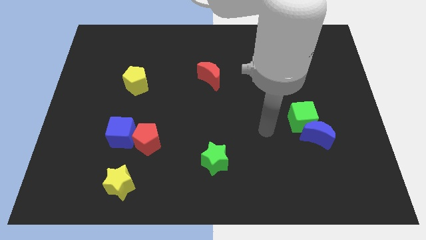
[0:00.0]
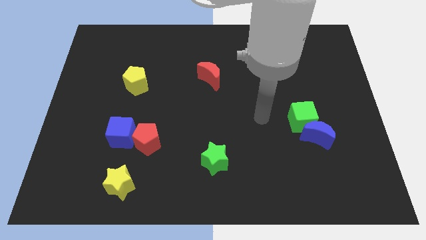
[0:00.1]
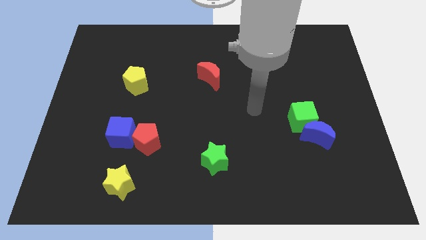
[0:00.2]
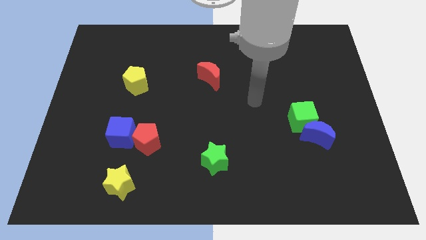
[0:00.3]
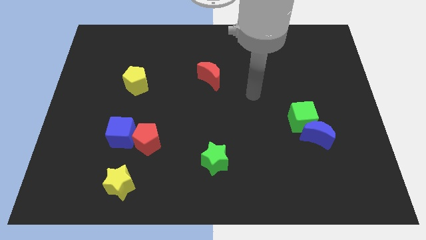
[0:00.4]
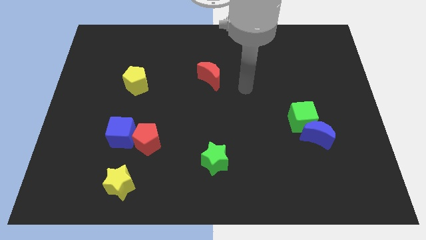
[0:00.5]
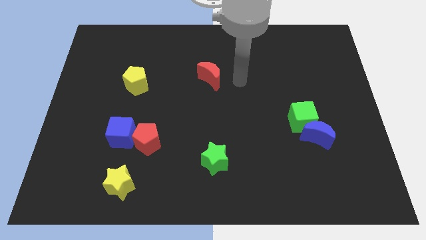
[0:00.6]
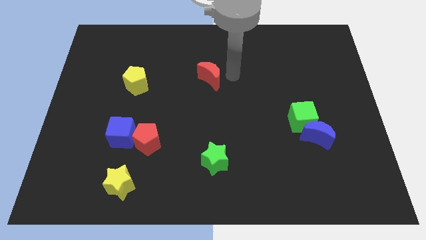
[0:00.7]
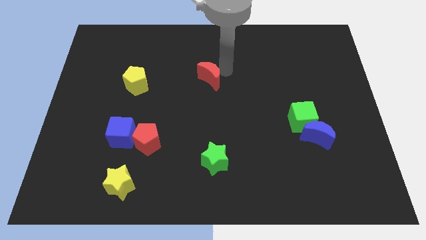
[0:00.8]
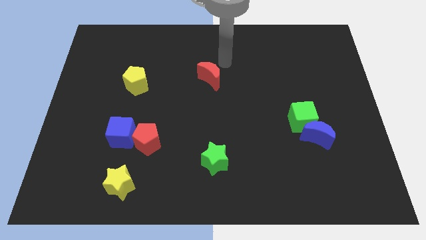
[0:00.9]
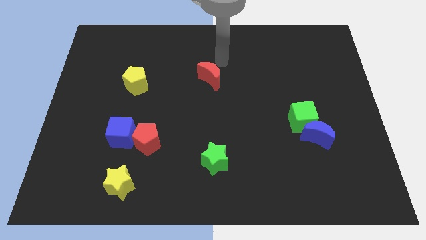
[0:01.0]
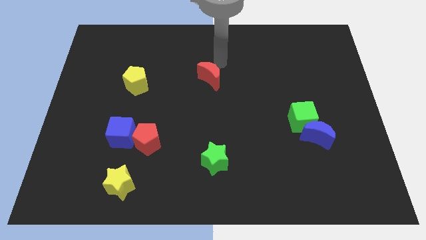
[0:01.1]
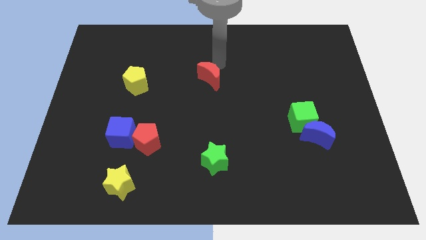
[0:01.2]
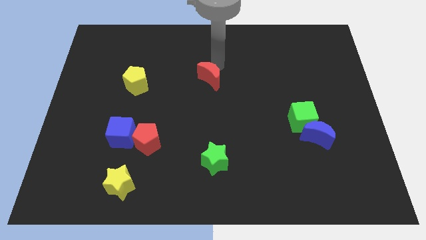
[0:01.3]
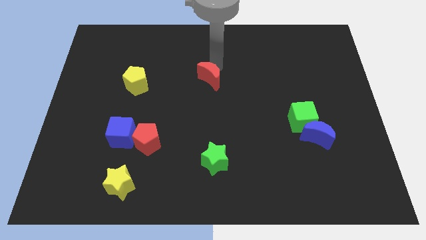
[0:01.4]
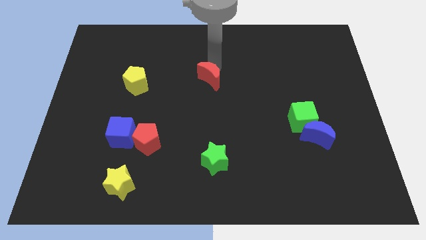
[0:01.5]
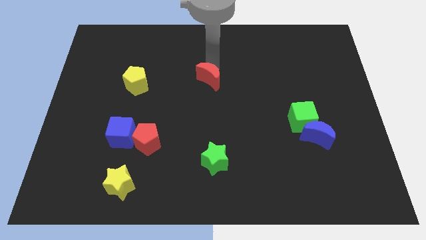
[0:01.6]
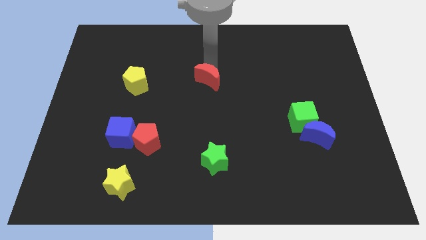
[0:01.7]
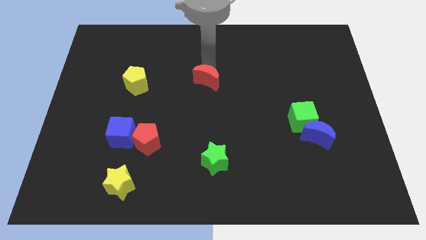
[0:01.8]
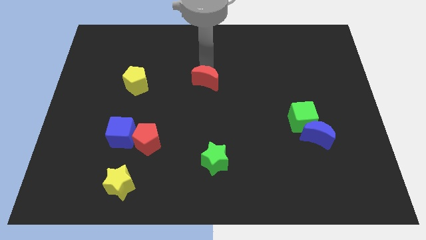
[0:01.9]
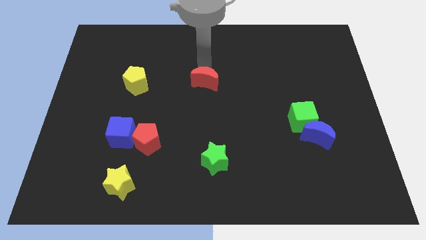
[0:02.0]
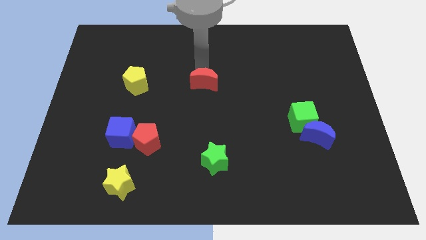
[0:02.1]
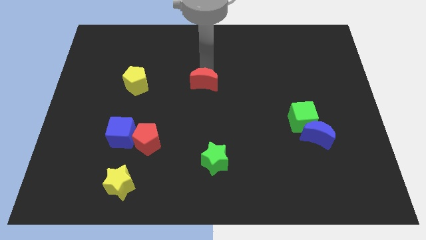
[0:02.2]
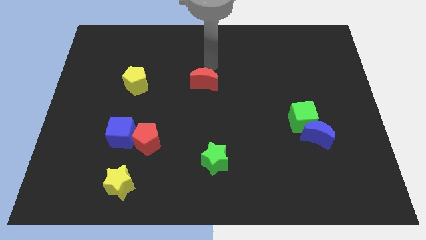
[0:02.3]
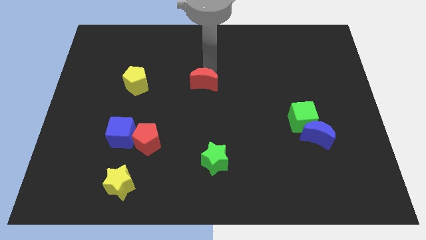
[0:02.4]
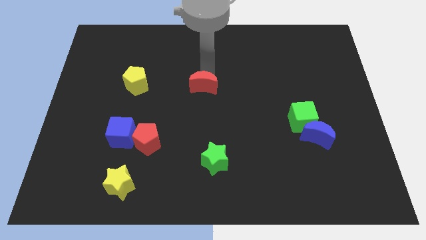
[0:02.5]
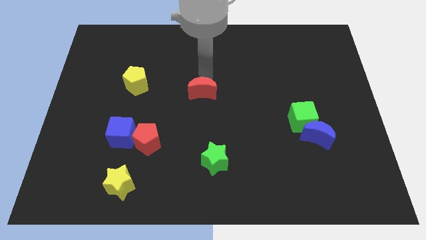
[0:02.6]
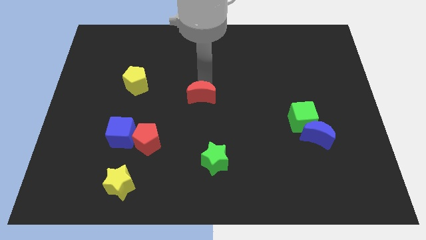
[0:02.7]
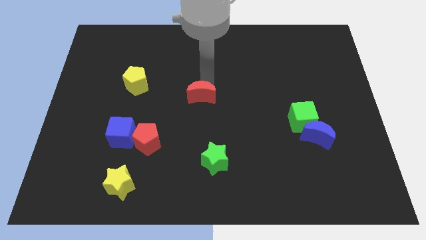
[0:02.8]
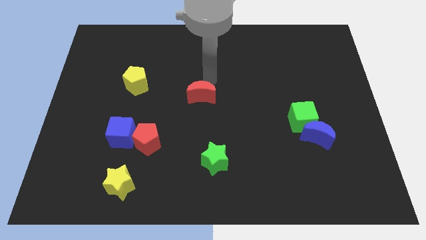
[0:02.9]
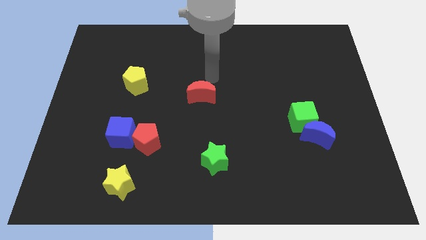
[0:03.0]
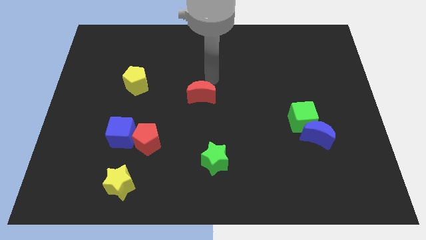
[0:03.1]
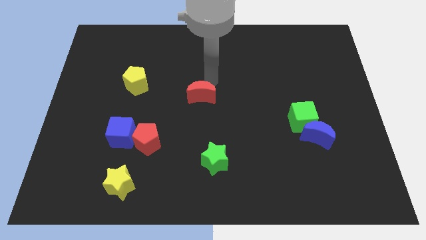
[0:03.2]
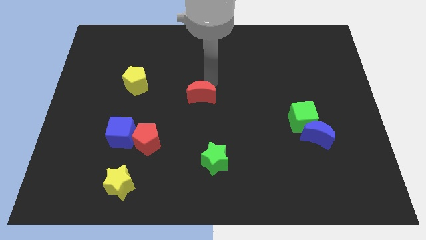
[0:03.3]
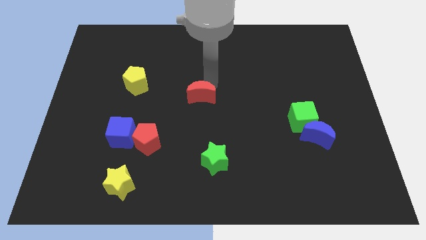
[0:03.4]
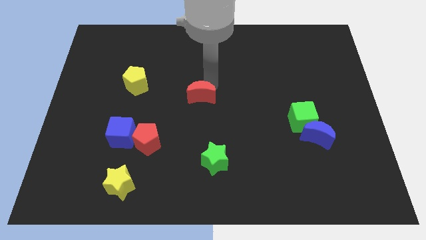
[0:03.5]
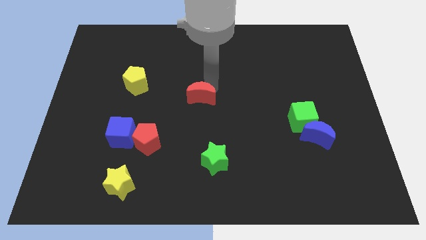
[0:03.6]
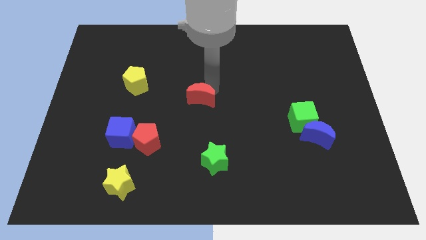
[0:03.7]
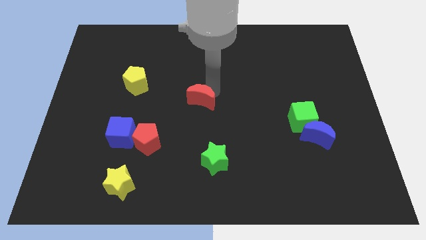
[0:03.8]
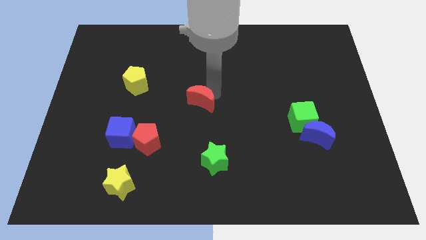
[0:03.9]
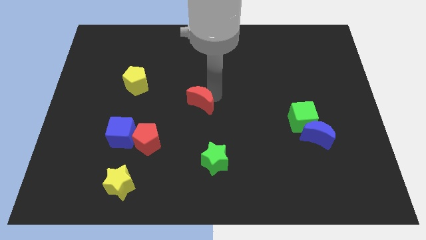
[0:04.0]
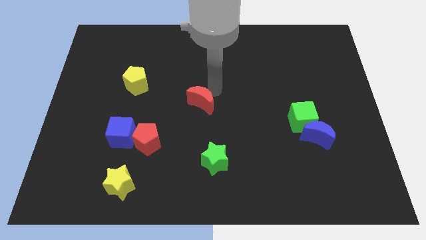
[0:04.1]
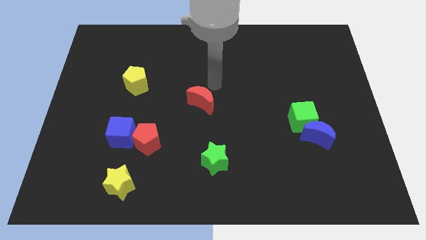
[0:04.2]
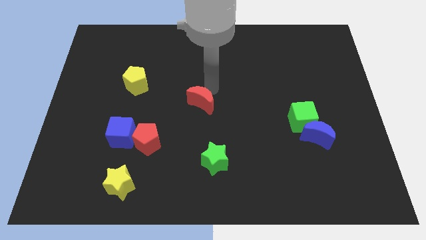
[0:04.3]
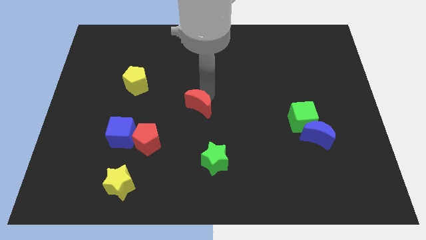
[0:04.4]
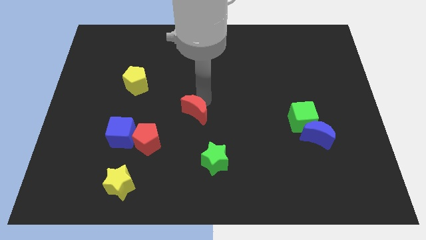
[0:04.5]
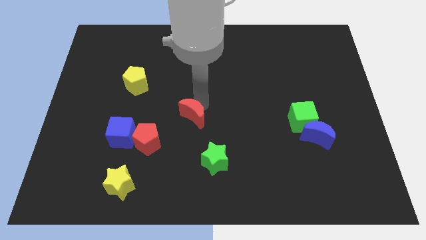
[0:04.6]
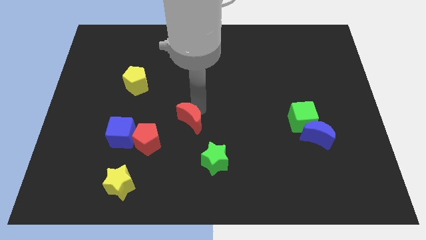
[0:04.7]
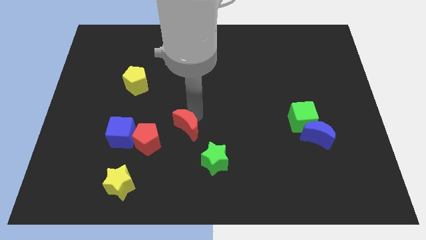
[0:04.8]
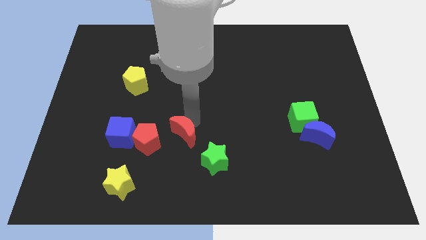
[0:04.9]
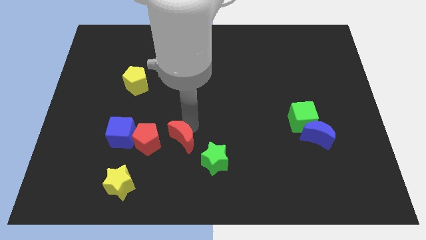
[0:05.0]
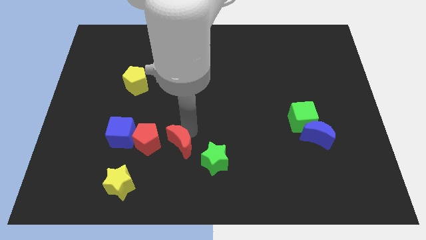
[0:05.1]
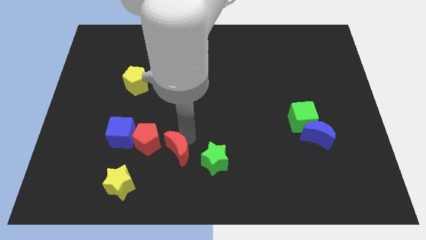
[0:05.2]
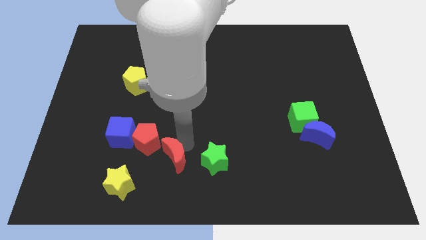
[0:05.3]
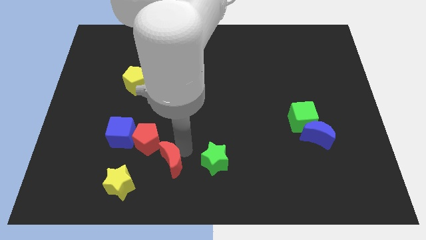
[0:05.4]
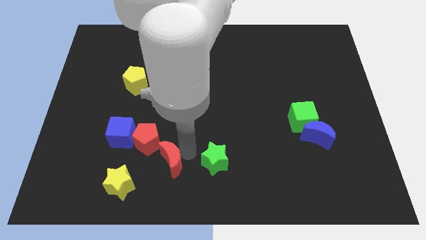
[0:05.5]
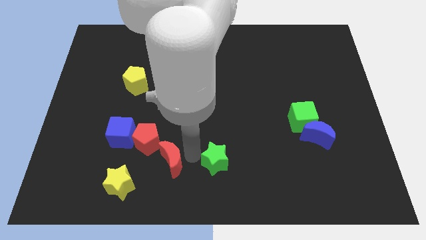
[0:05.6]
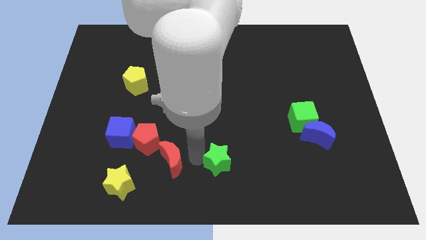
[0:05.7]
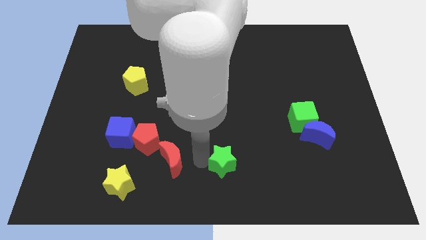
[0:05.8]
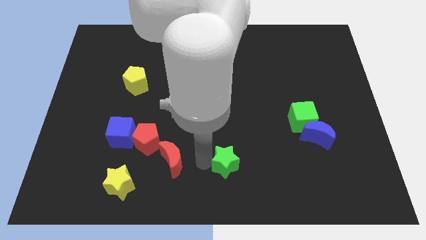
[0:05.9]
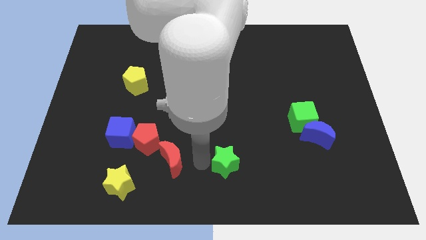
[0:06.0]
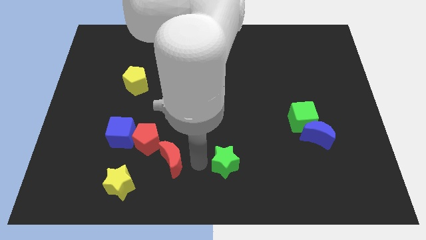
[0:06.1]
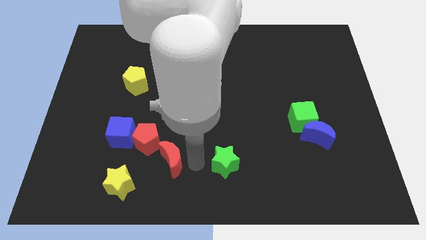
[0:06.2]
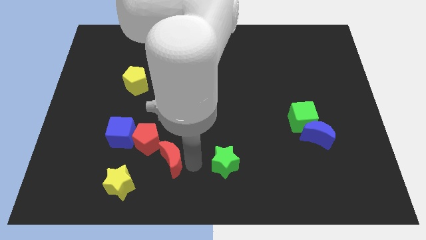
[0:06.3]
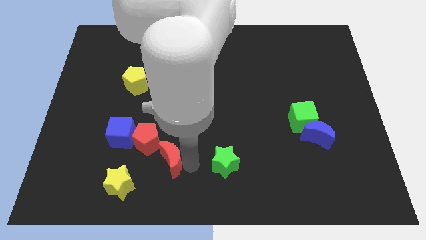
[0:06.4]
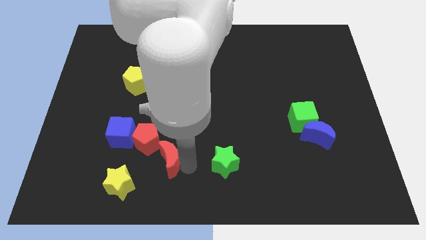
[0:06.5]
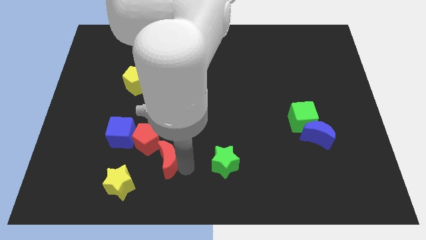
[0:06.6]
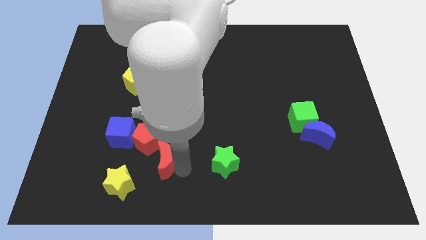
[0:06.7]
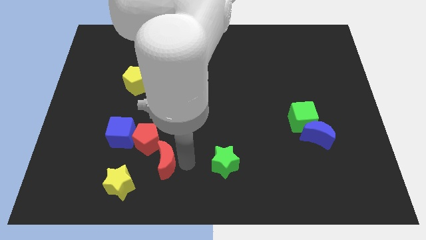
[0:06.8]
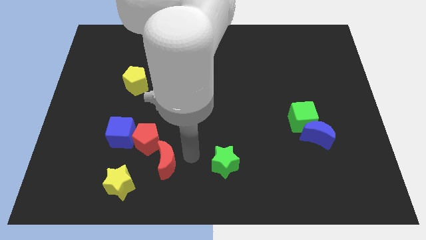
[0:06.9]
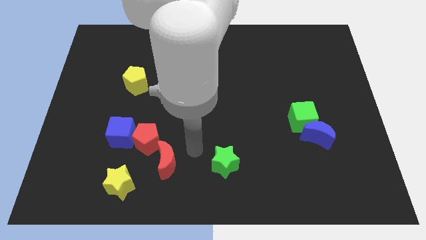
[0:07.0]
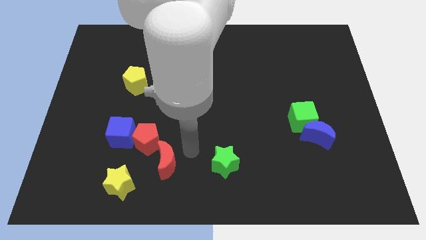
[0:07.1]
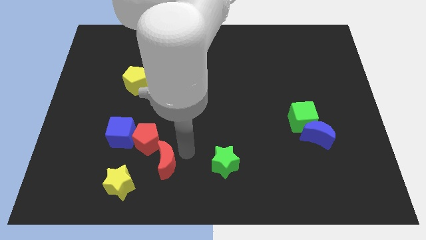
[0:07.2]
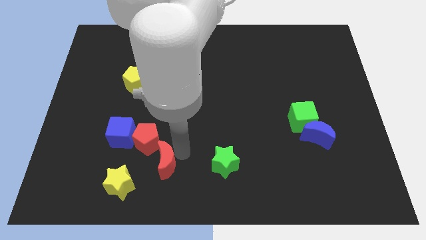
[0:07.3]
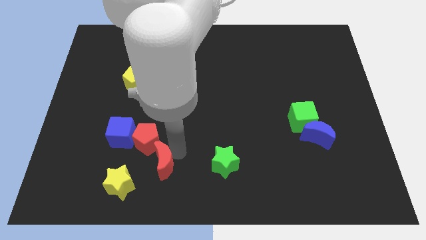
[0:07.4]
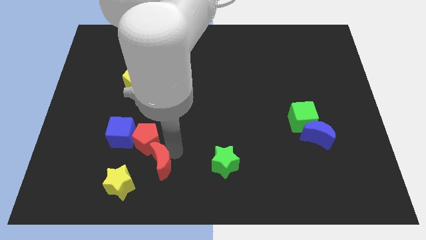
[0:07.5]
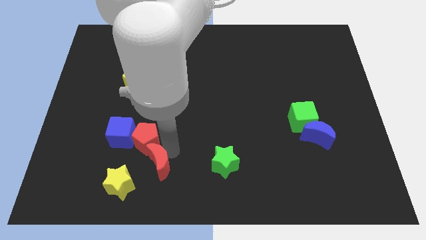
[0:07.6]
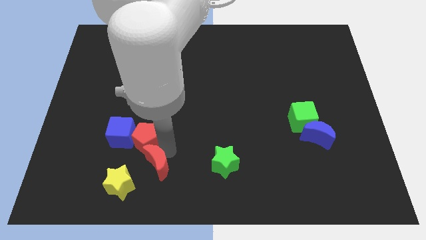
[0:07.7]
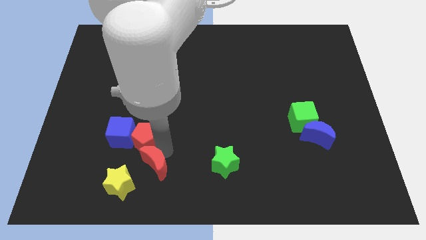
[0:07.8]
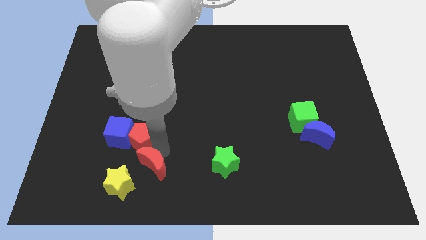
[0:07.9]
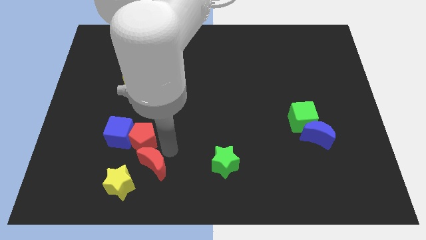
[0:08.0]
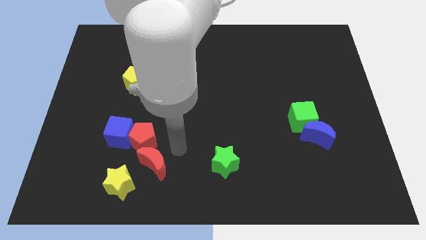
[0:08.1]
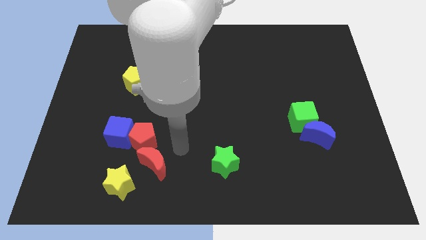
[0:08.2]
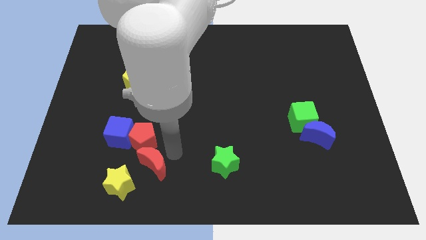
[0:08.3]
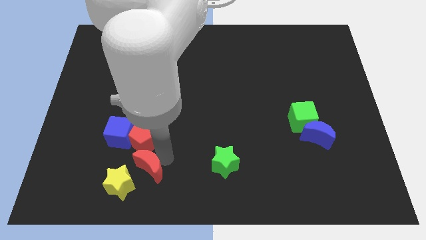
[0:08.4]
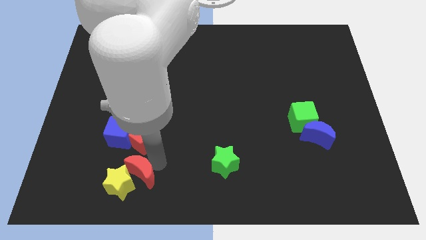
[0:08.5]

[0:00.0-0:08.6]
push the red moon close to the yellow star
